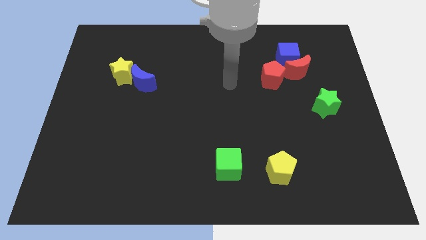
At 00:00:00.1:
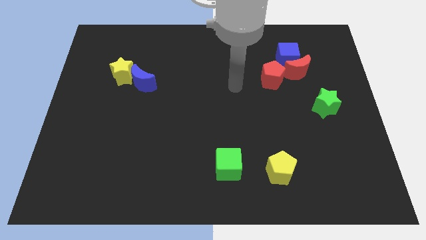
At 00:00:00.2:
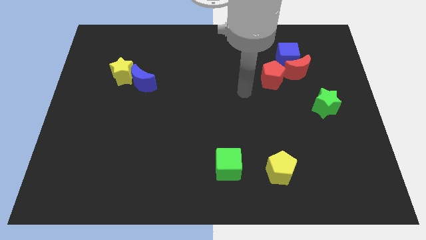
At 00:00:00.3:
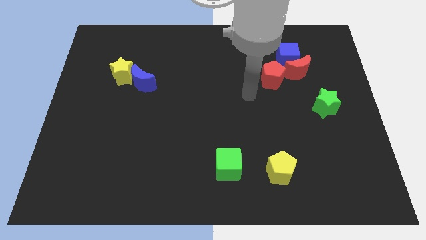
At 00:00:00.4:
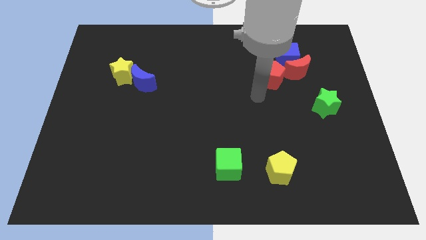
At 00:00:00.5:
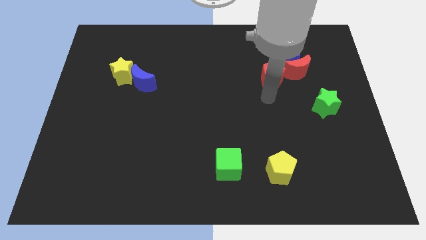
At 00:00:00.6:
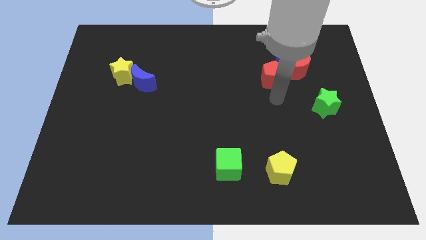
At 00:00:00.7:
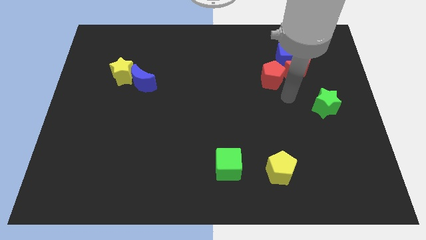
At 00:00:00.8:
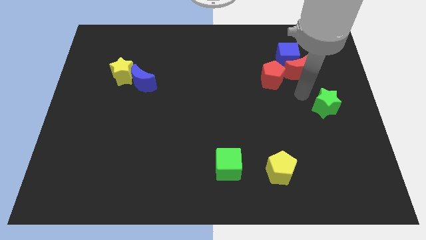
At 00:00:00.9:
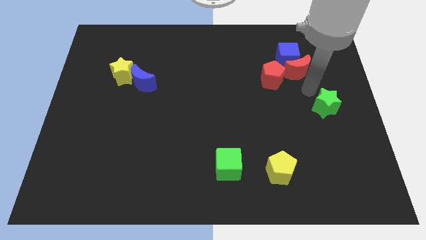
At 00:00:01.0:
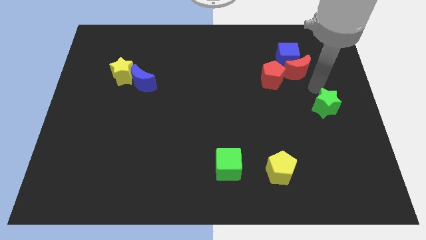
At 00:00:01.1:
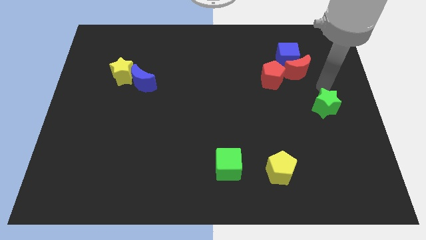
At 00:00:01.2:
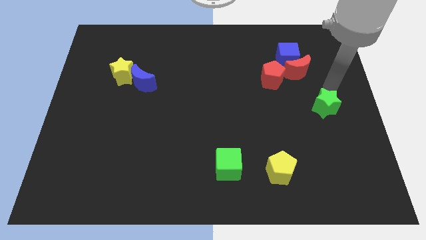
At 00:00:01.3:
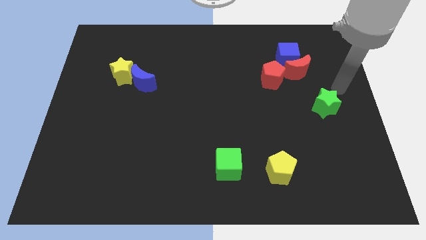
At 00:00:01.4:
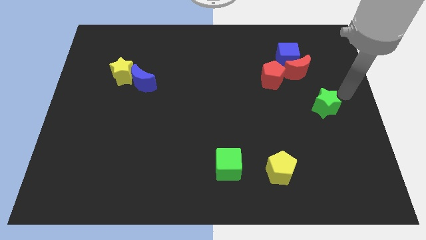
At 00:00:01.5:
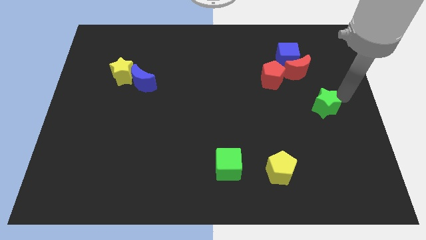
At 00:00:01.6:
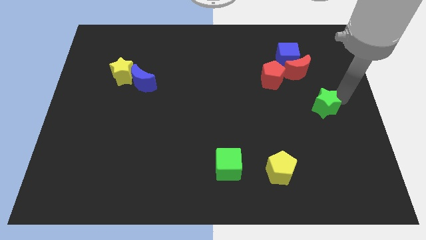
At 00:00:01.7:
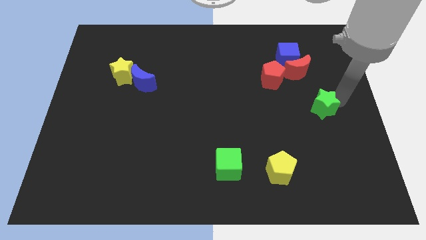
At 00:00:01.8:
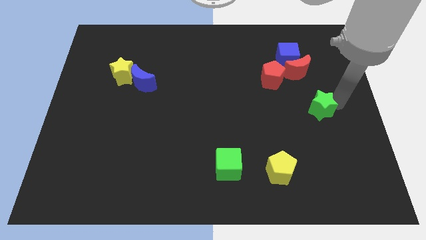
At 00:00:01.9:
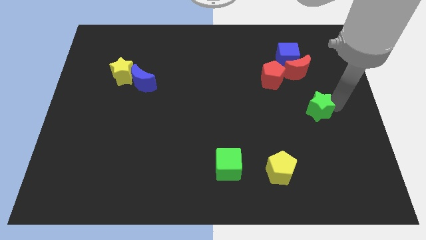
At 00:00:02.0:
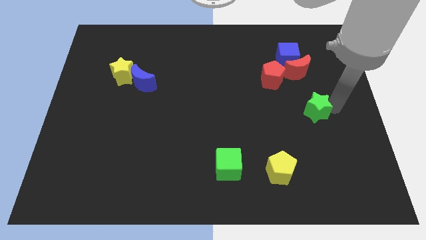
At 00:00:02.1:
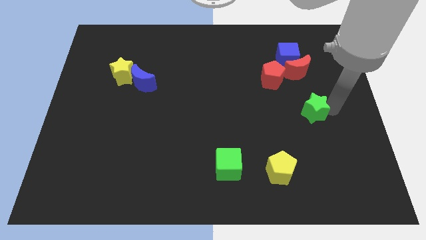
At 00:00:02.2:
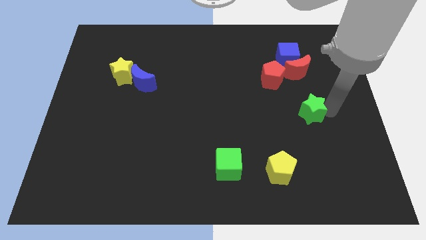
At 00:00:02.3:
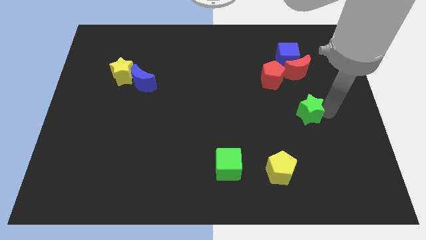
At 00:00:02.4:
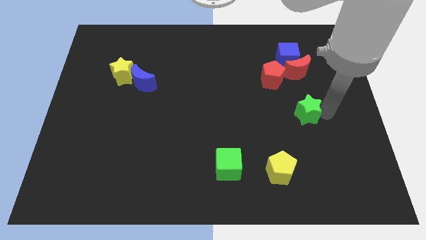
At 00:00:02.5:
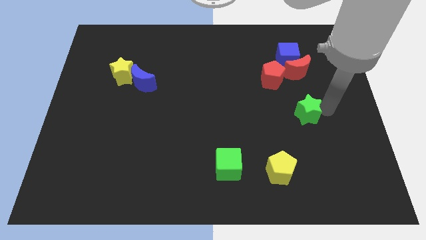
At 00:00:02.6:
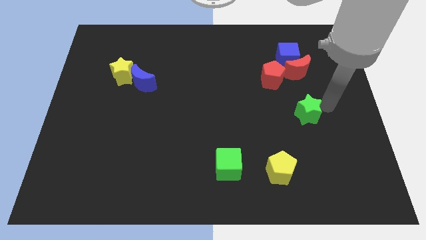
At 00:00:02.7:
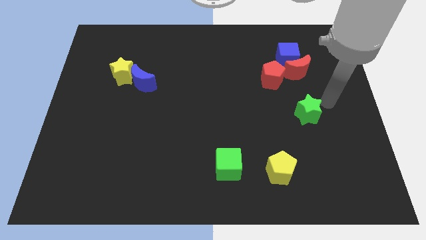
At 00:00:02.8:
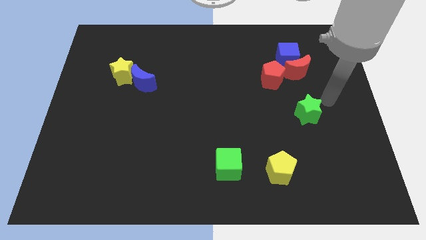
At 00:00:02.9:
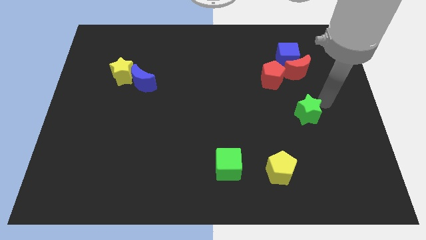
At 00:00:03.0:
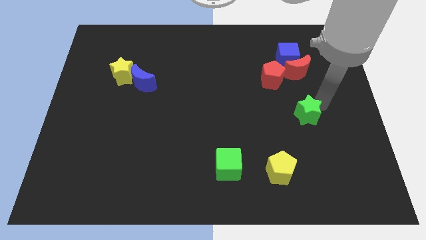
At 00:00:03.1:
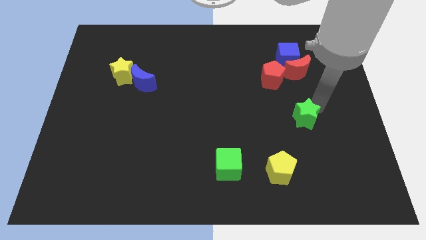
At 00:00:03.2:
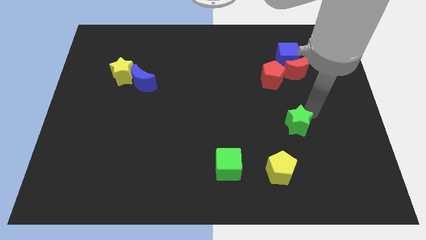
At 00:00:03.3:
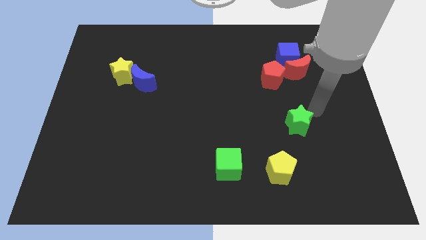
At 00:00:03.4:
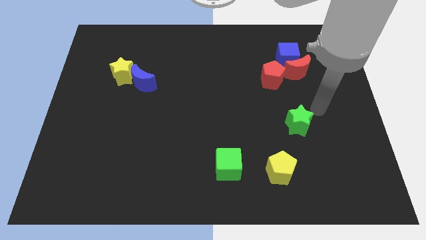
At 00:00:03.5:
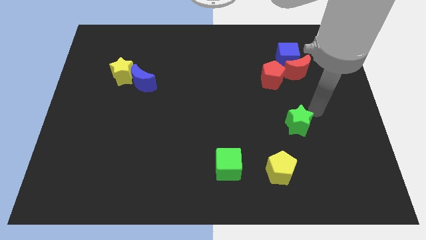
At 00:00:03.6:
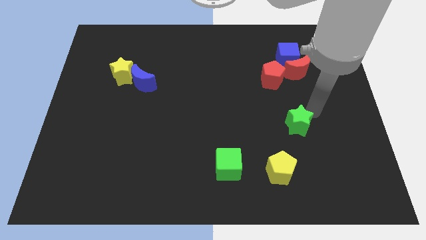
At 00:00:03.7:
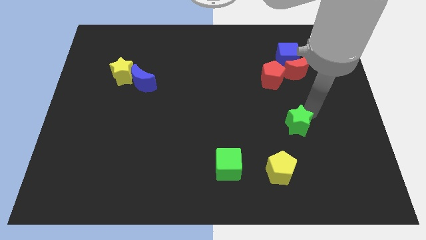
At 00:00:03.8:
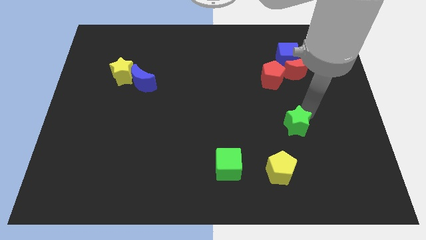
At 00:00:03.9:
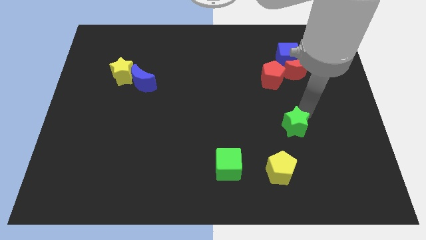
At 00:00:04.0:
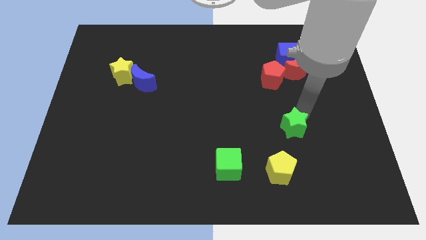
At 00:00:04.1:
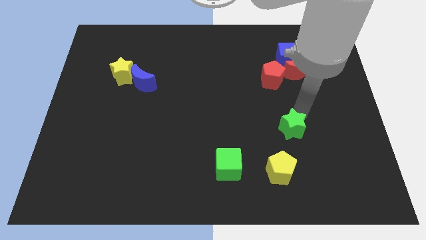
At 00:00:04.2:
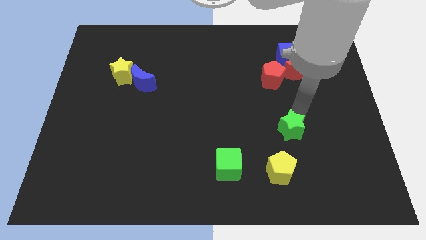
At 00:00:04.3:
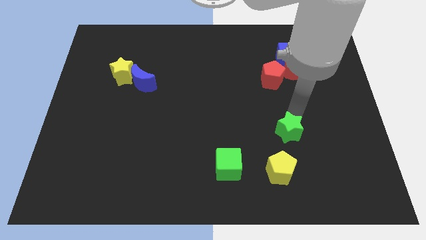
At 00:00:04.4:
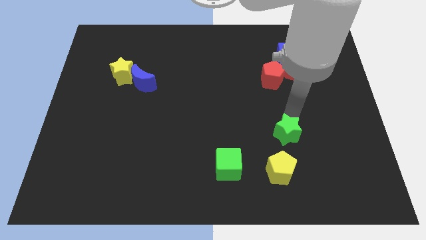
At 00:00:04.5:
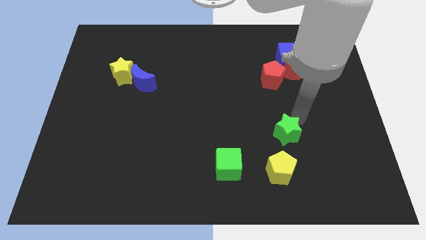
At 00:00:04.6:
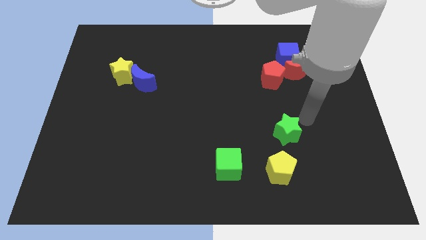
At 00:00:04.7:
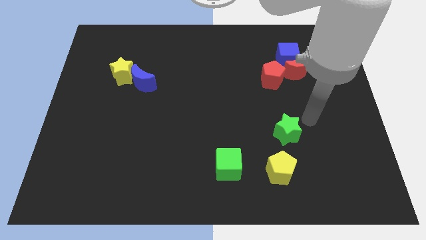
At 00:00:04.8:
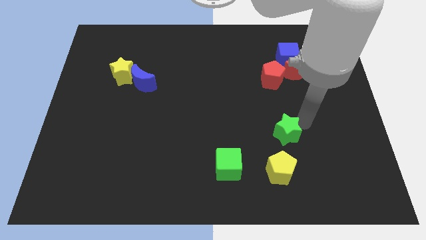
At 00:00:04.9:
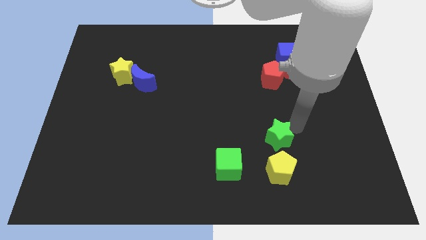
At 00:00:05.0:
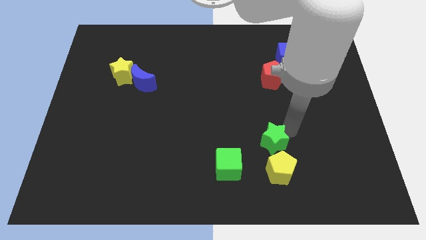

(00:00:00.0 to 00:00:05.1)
slide the green star to the top left side of the yellow pentagon

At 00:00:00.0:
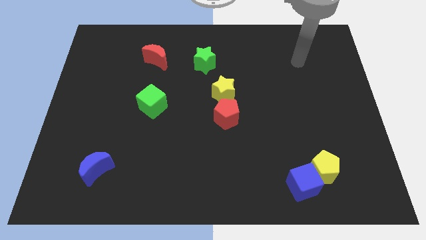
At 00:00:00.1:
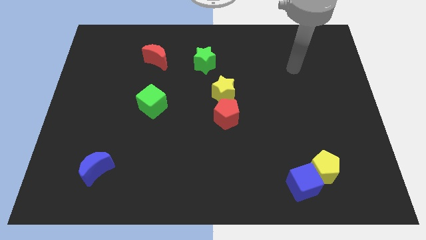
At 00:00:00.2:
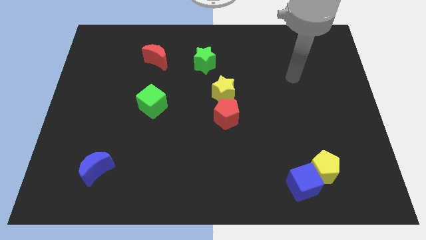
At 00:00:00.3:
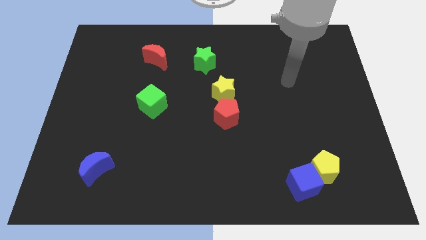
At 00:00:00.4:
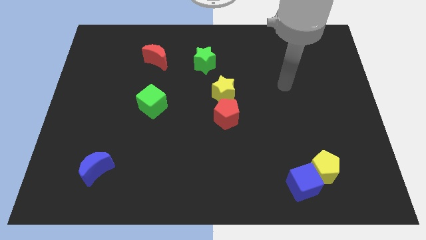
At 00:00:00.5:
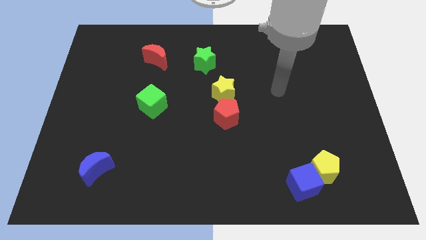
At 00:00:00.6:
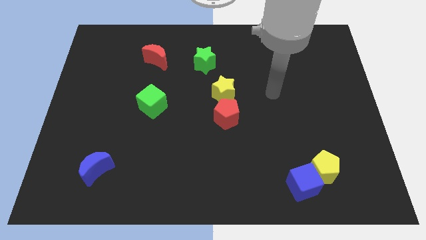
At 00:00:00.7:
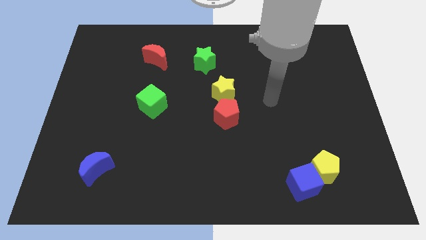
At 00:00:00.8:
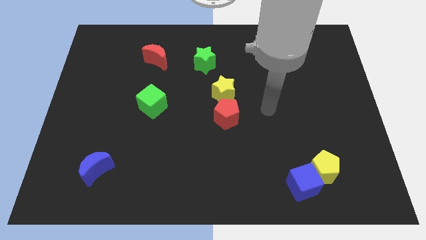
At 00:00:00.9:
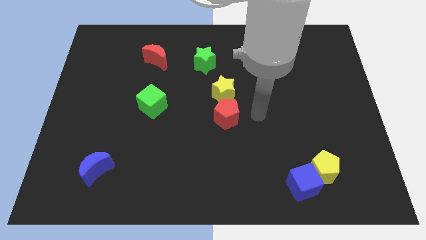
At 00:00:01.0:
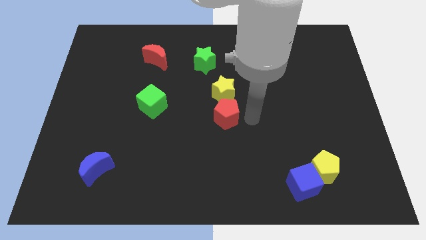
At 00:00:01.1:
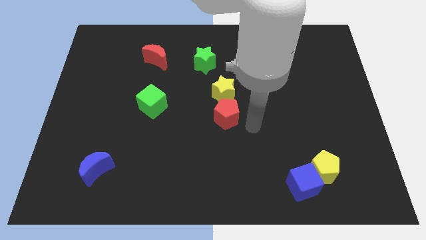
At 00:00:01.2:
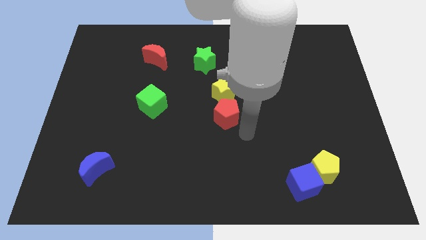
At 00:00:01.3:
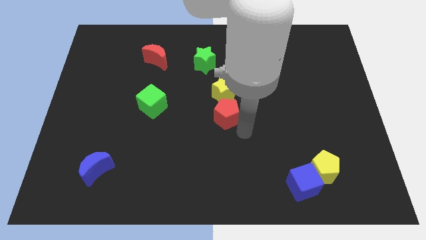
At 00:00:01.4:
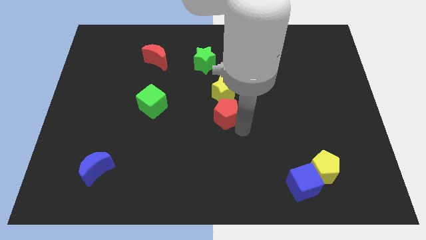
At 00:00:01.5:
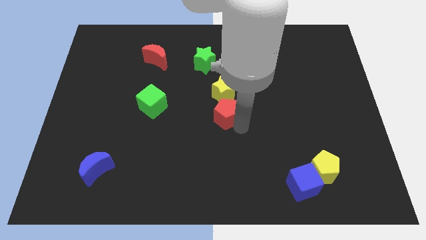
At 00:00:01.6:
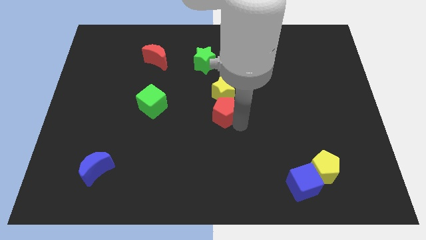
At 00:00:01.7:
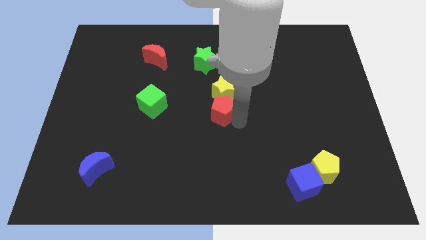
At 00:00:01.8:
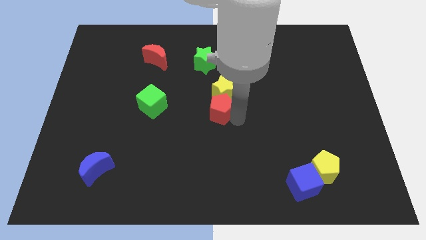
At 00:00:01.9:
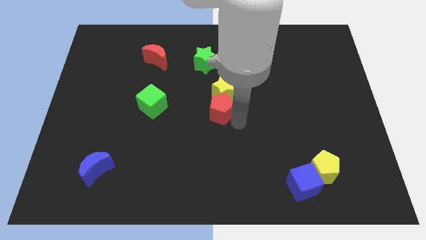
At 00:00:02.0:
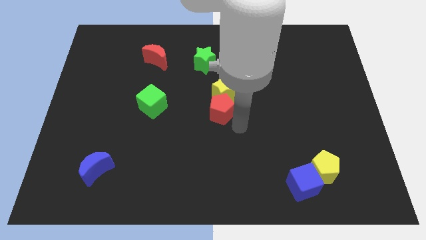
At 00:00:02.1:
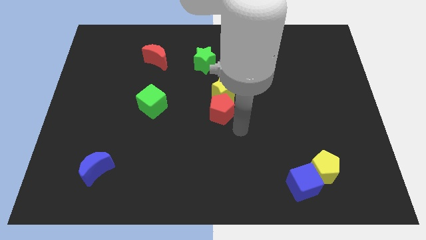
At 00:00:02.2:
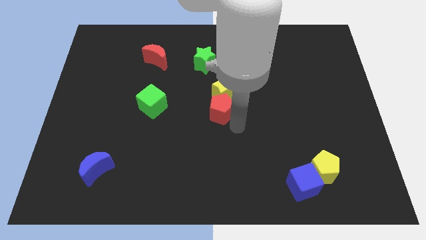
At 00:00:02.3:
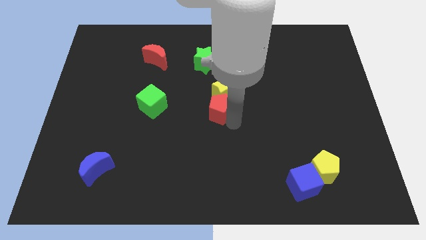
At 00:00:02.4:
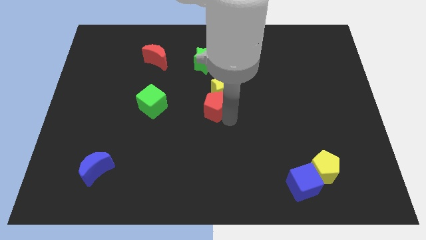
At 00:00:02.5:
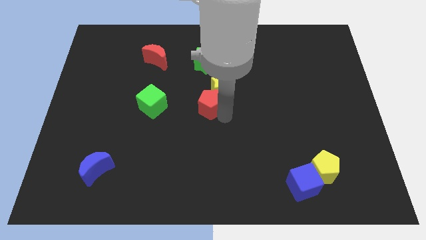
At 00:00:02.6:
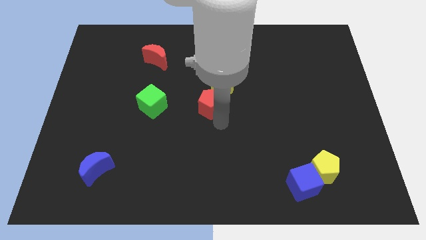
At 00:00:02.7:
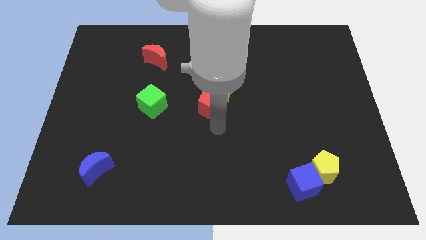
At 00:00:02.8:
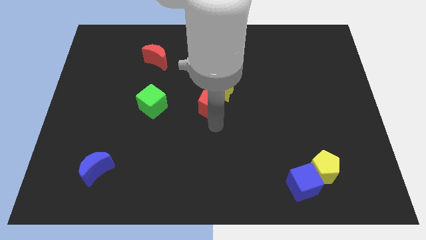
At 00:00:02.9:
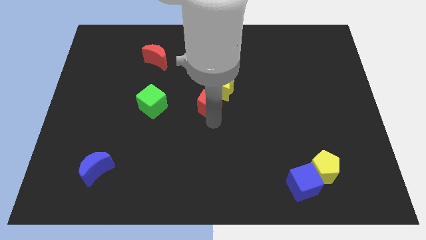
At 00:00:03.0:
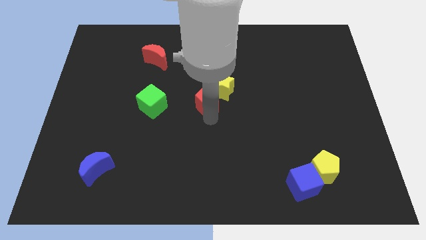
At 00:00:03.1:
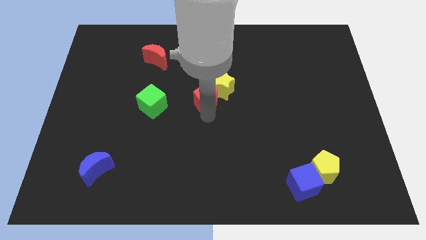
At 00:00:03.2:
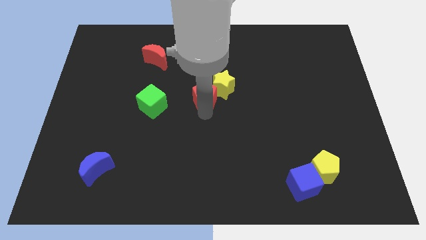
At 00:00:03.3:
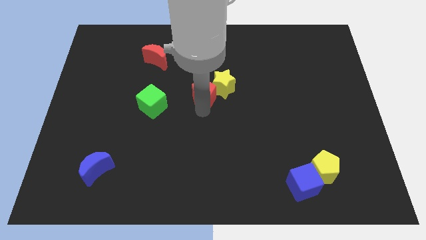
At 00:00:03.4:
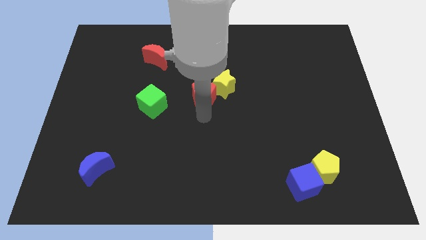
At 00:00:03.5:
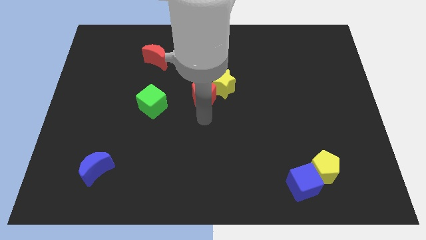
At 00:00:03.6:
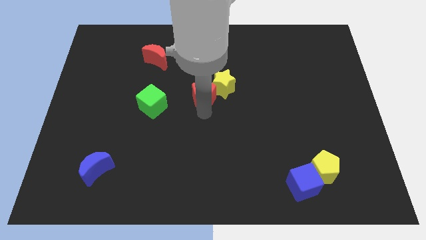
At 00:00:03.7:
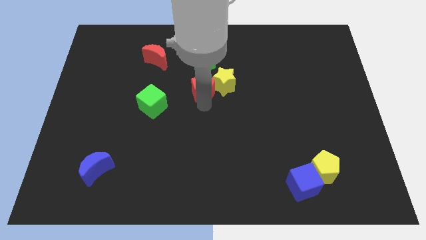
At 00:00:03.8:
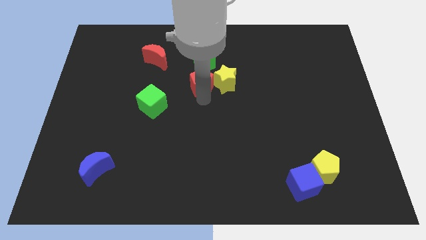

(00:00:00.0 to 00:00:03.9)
put the red pentagon to the top left of the yellow star
